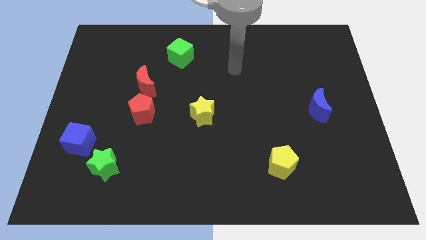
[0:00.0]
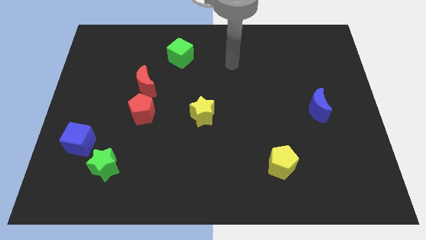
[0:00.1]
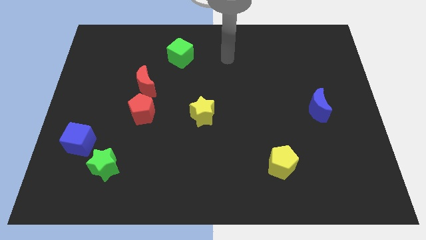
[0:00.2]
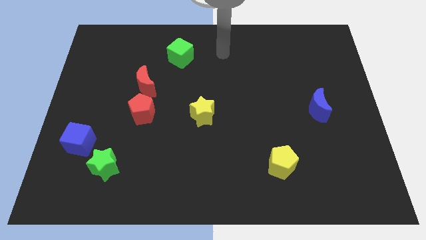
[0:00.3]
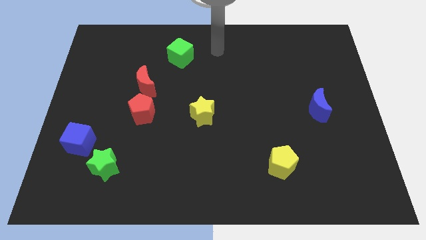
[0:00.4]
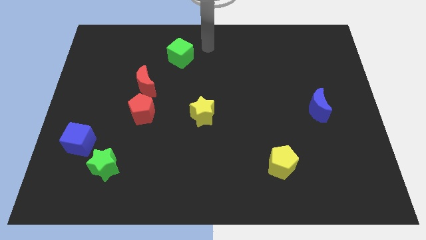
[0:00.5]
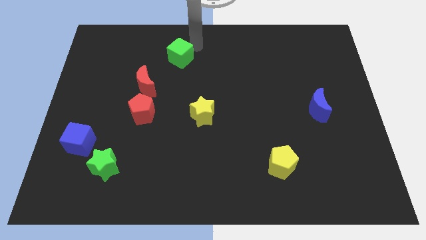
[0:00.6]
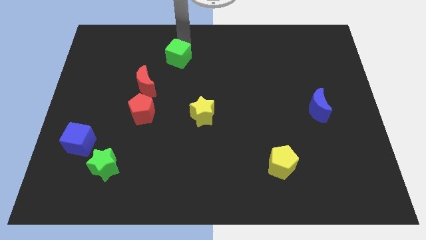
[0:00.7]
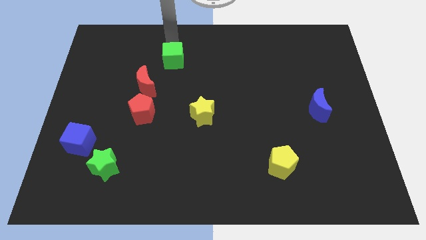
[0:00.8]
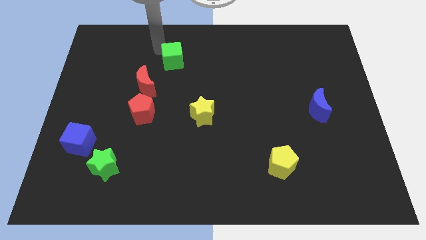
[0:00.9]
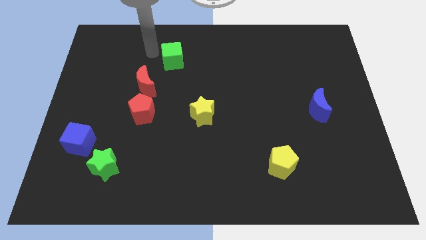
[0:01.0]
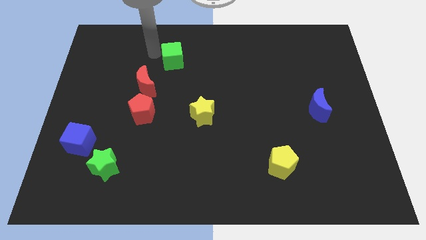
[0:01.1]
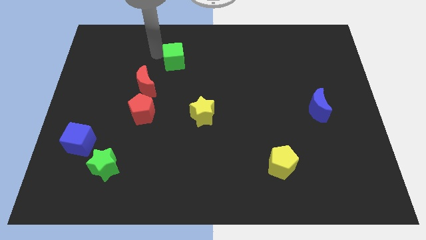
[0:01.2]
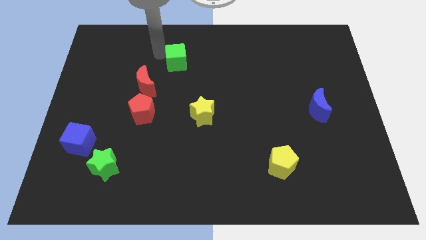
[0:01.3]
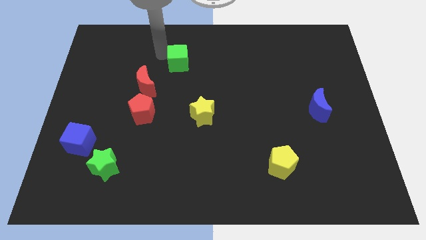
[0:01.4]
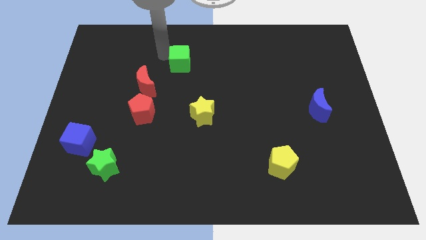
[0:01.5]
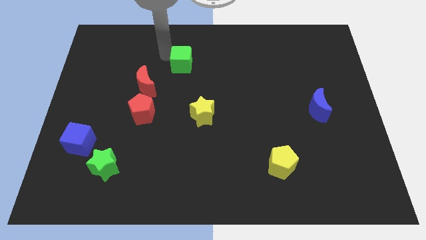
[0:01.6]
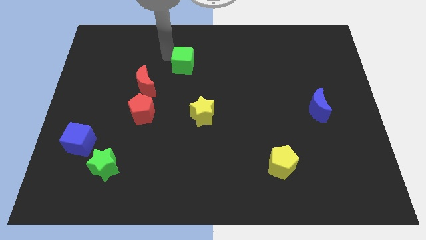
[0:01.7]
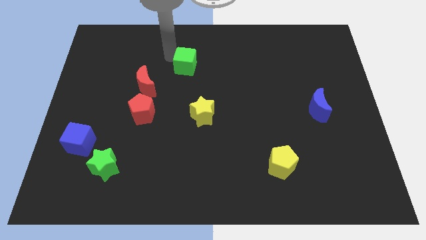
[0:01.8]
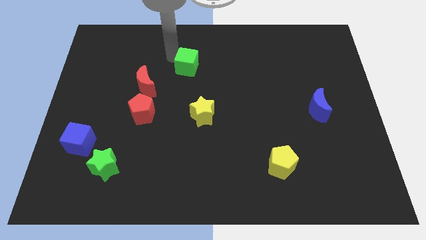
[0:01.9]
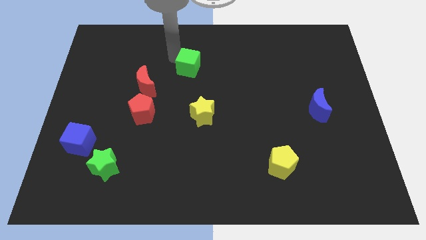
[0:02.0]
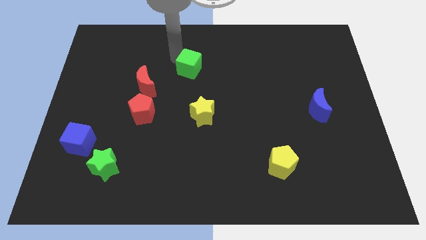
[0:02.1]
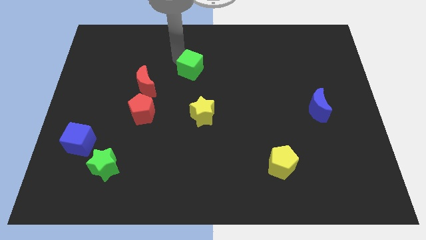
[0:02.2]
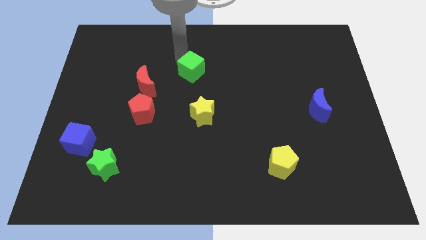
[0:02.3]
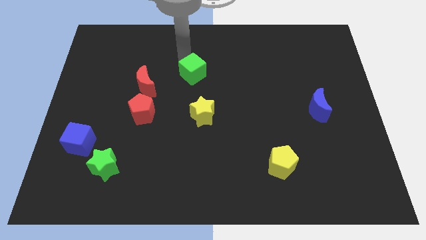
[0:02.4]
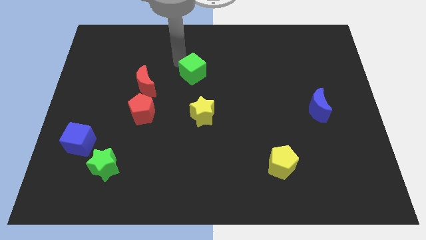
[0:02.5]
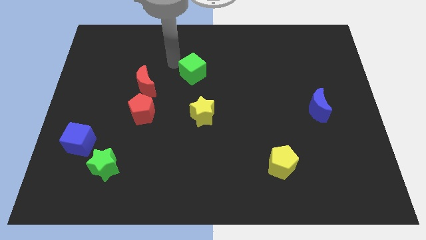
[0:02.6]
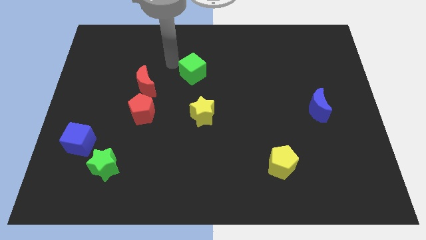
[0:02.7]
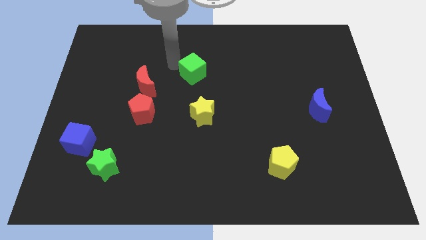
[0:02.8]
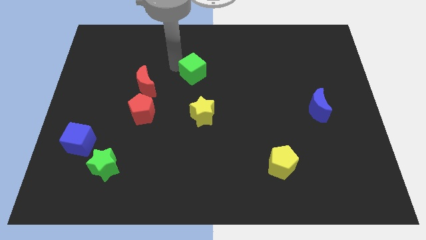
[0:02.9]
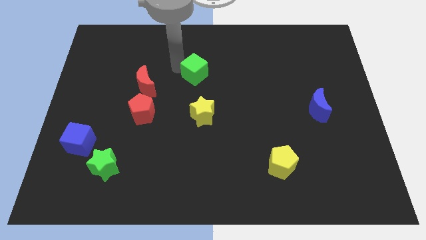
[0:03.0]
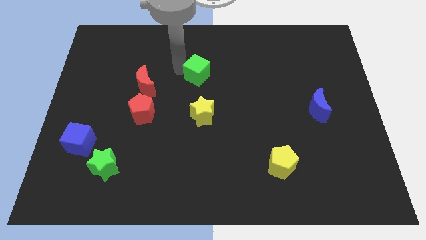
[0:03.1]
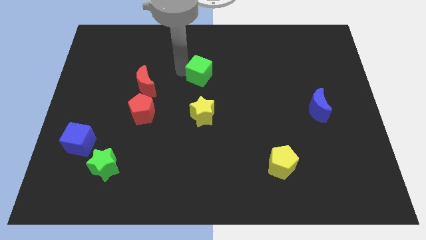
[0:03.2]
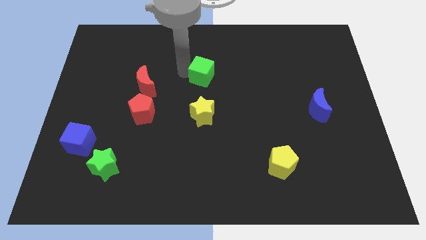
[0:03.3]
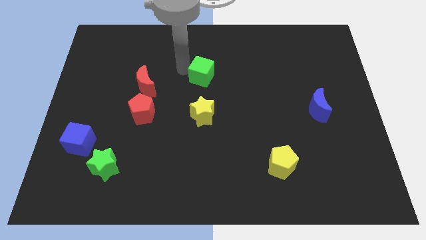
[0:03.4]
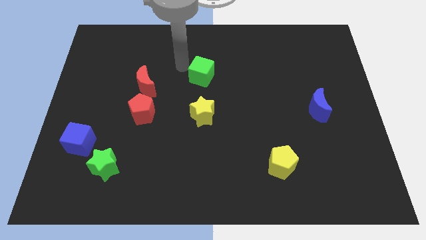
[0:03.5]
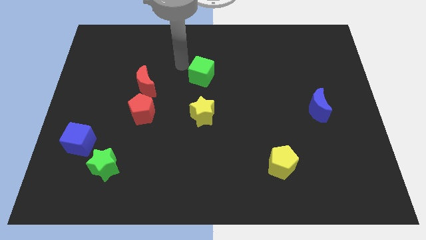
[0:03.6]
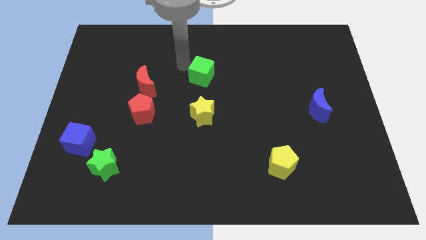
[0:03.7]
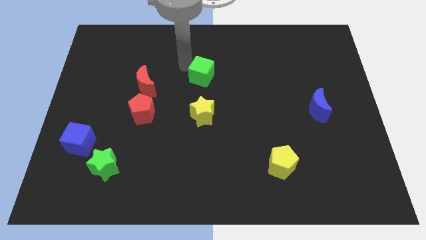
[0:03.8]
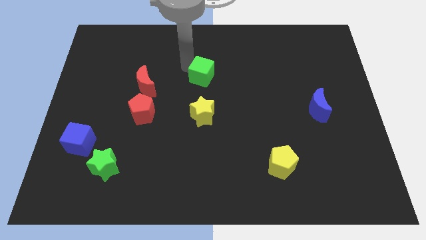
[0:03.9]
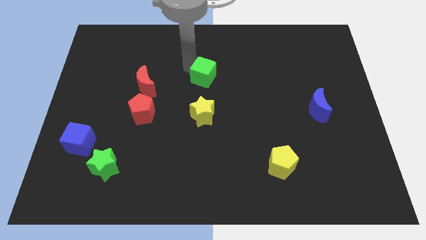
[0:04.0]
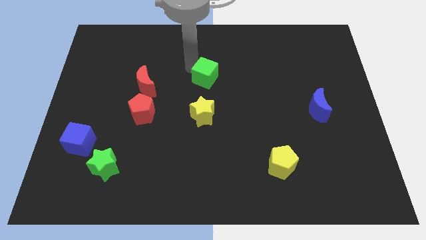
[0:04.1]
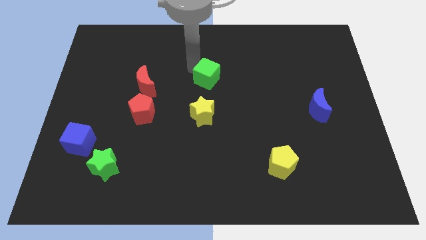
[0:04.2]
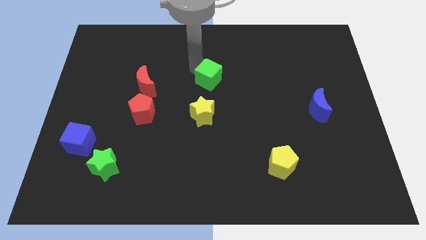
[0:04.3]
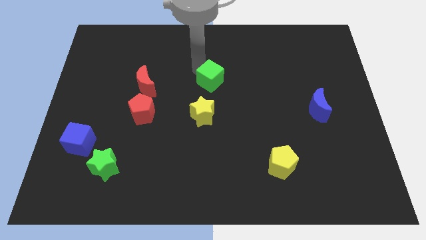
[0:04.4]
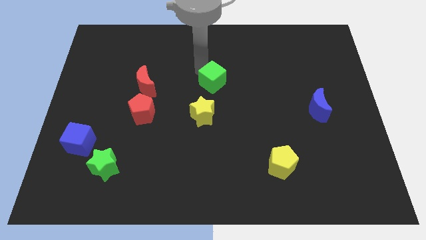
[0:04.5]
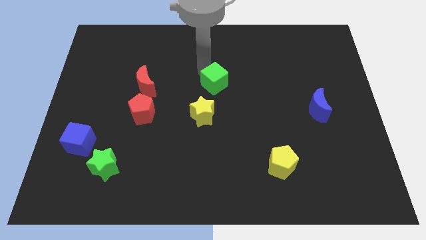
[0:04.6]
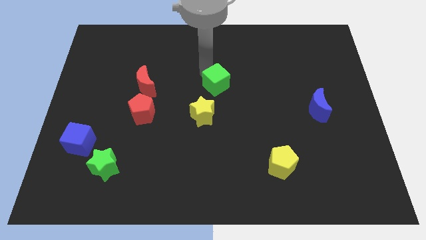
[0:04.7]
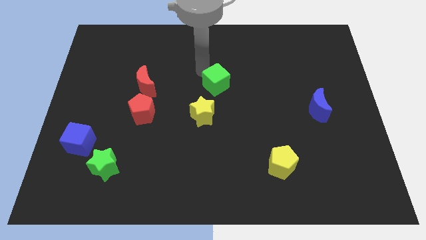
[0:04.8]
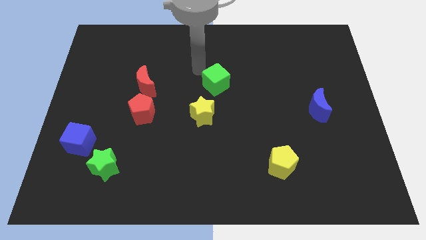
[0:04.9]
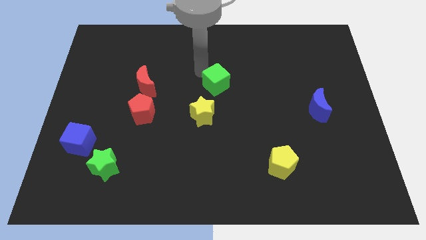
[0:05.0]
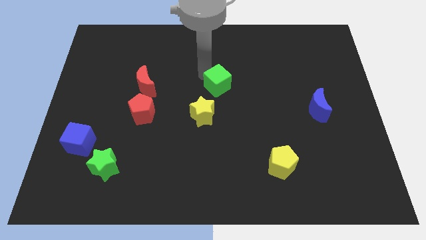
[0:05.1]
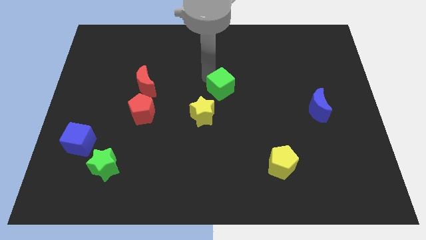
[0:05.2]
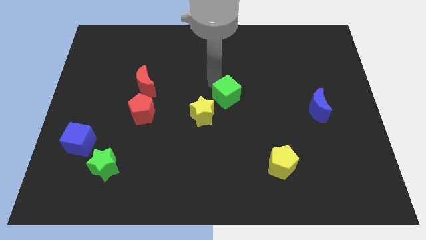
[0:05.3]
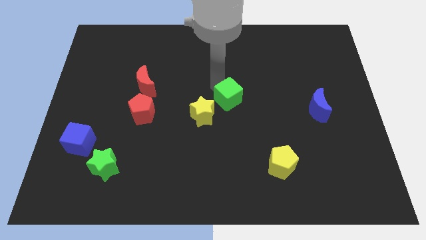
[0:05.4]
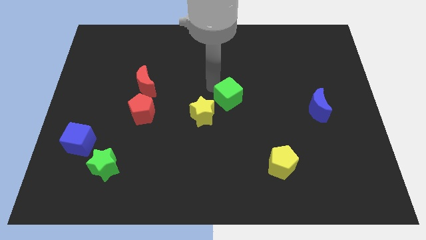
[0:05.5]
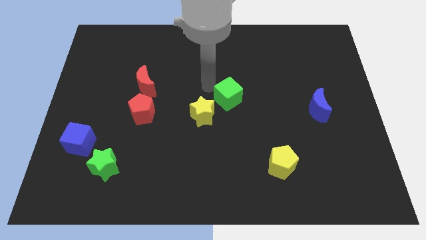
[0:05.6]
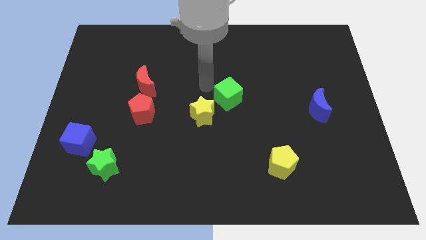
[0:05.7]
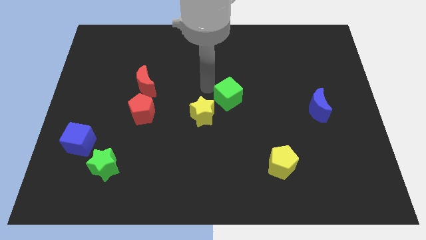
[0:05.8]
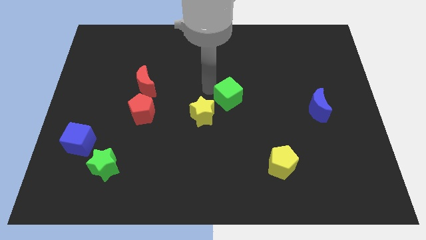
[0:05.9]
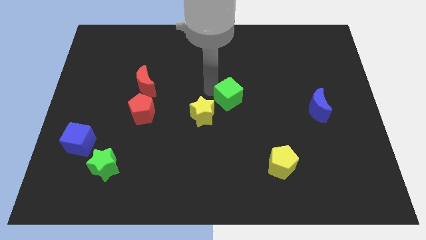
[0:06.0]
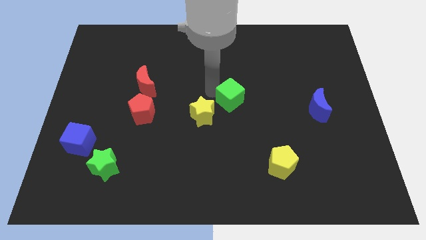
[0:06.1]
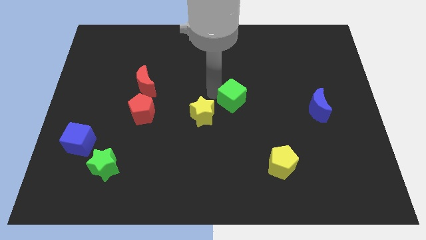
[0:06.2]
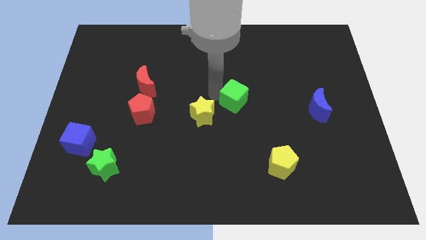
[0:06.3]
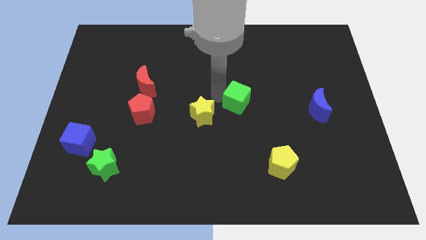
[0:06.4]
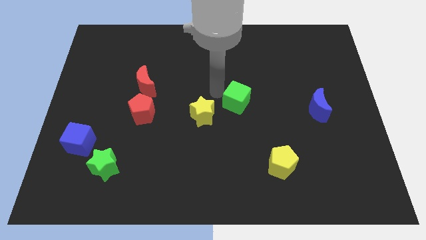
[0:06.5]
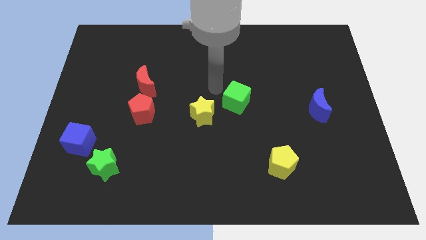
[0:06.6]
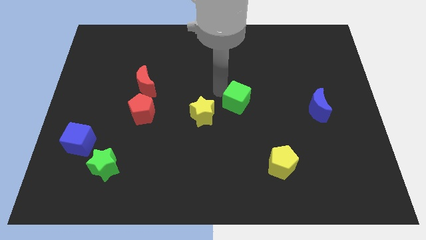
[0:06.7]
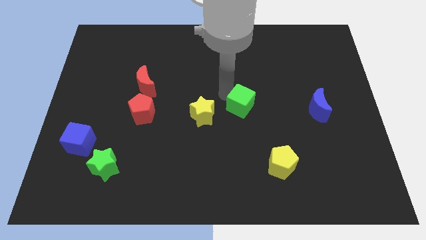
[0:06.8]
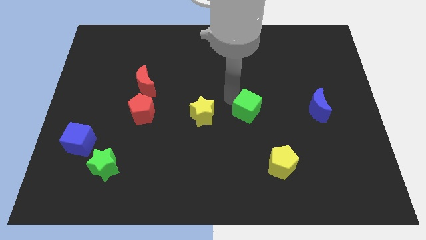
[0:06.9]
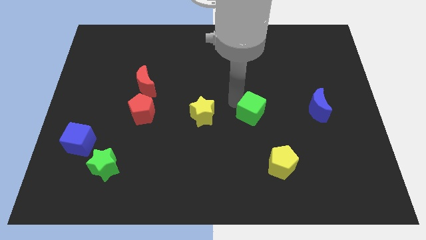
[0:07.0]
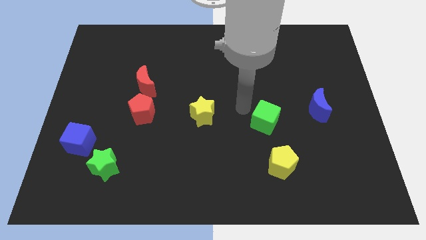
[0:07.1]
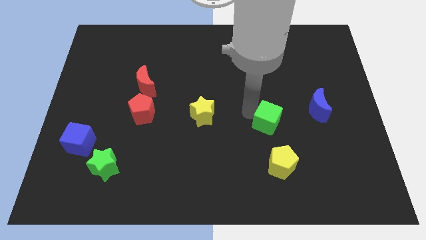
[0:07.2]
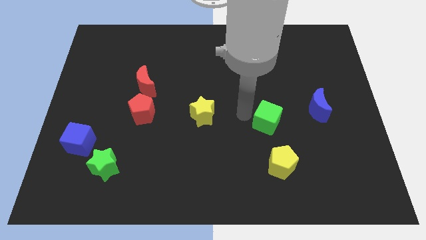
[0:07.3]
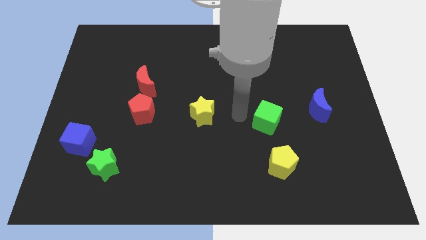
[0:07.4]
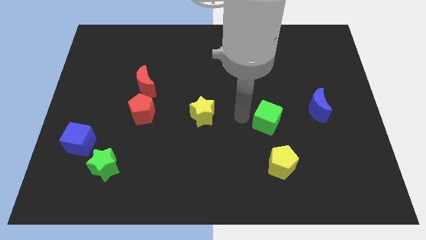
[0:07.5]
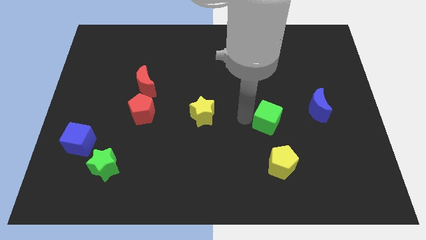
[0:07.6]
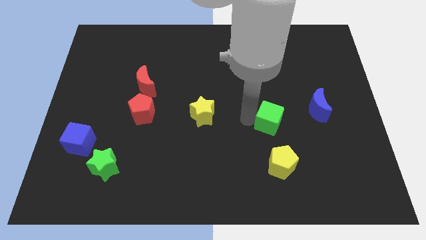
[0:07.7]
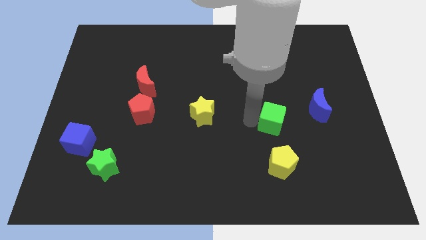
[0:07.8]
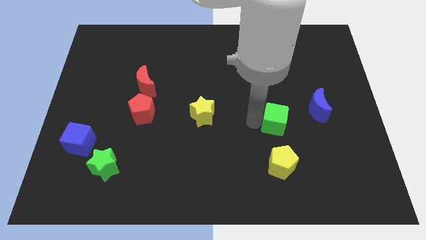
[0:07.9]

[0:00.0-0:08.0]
move the green cube diagonally down and to the left of the blue moon

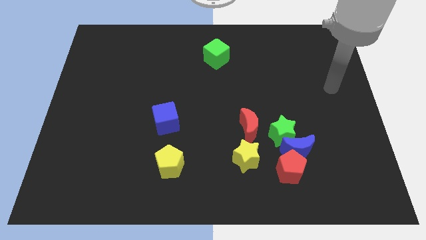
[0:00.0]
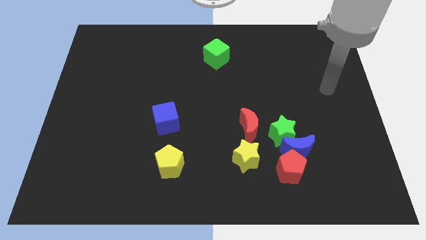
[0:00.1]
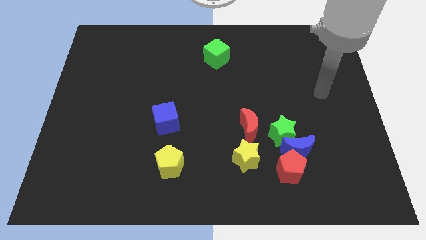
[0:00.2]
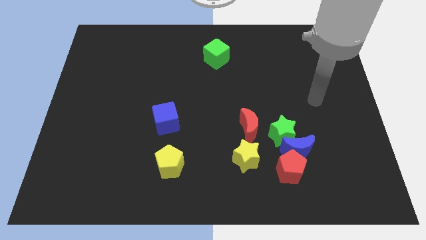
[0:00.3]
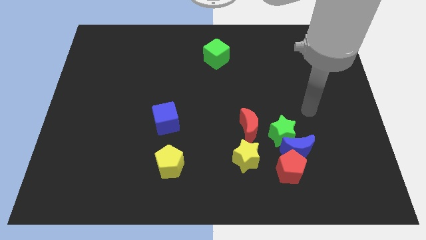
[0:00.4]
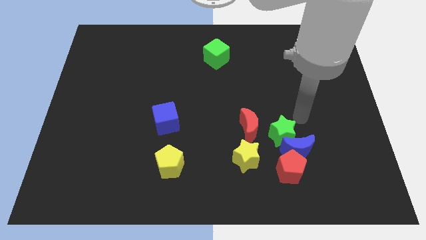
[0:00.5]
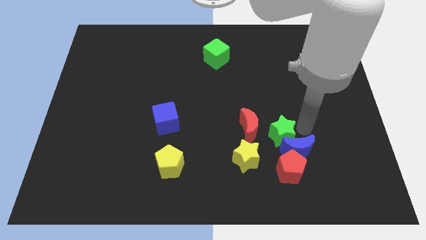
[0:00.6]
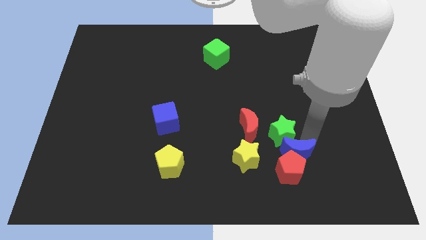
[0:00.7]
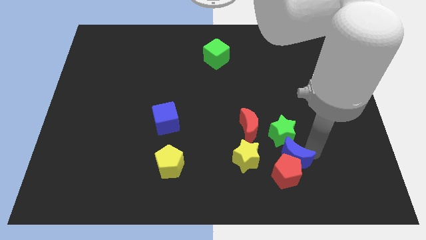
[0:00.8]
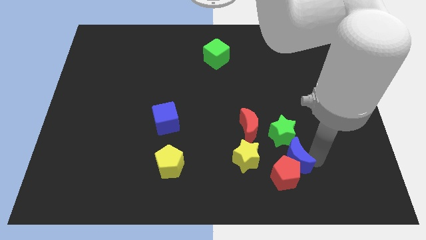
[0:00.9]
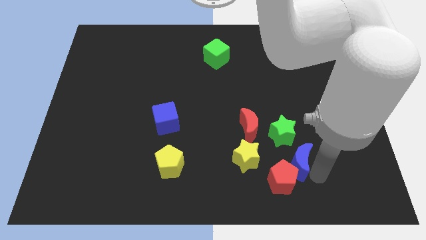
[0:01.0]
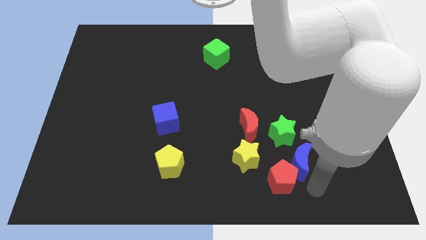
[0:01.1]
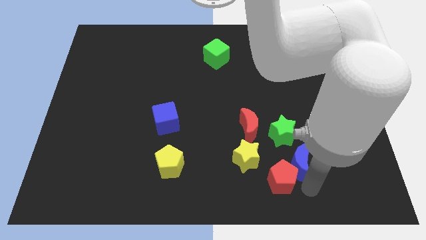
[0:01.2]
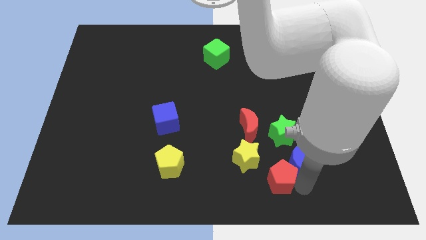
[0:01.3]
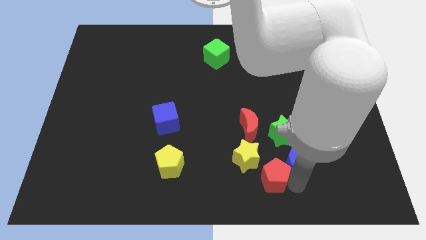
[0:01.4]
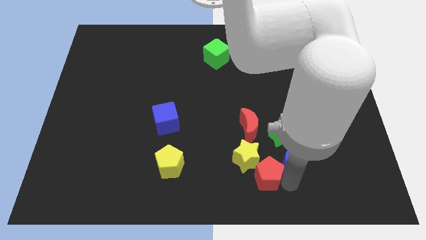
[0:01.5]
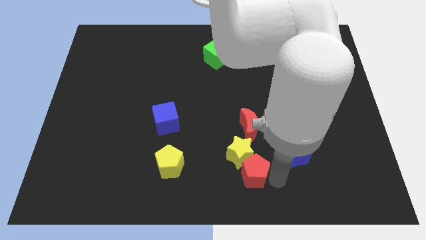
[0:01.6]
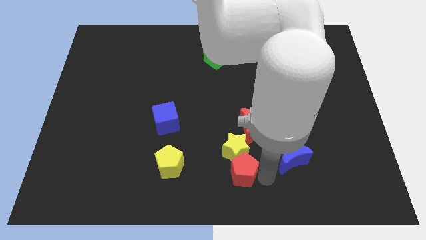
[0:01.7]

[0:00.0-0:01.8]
push the red pentagon just right of the yellow pentagon
